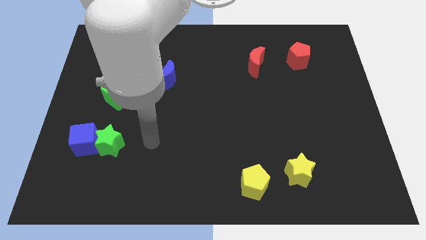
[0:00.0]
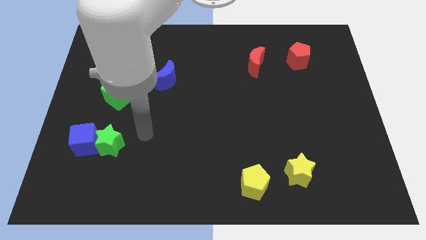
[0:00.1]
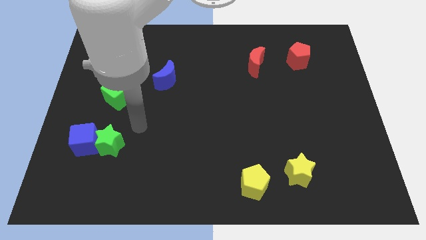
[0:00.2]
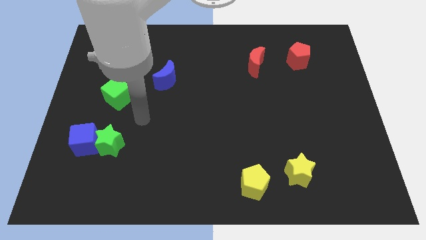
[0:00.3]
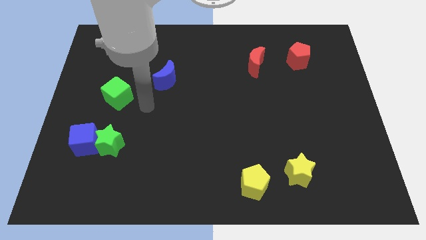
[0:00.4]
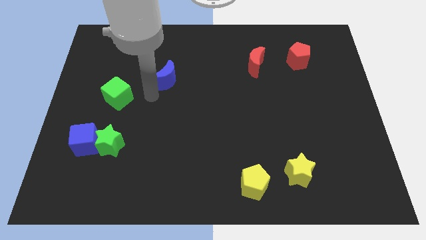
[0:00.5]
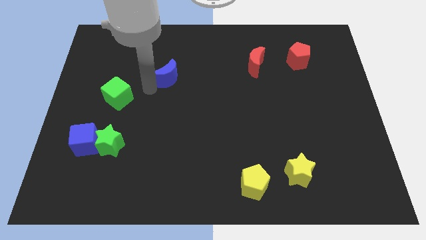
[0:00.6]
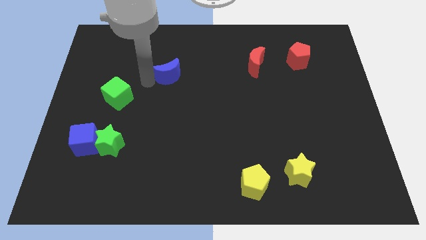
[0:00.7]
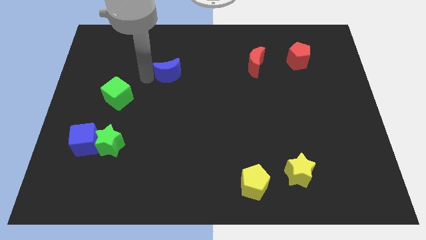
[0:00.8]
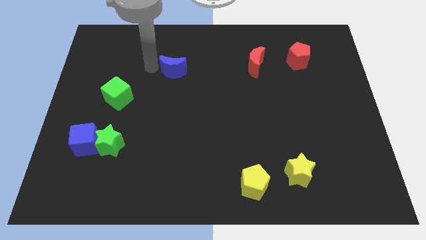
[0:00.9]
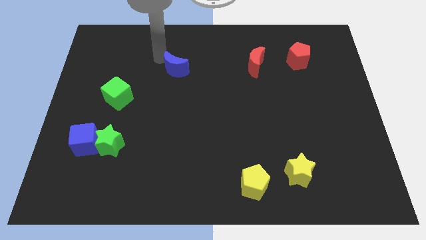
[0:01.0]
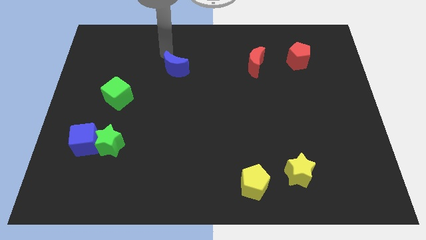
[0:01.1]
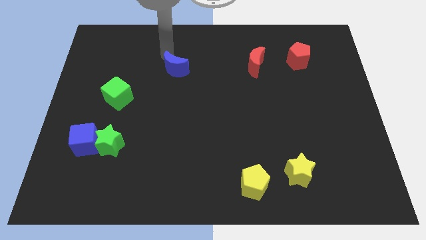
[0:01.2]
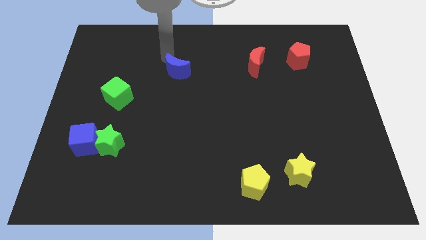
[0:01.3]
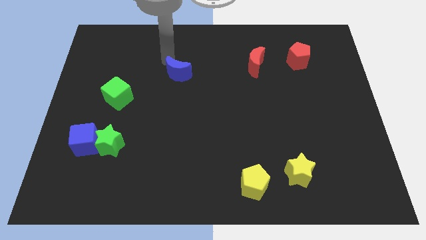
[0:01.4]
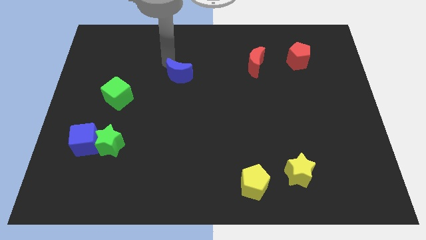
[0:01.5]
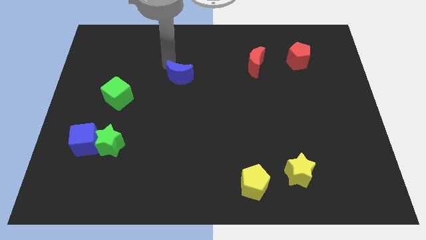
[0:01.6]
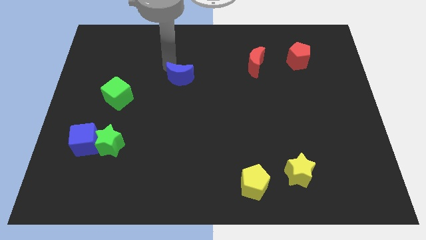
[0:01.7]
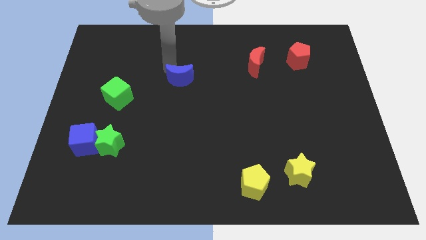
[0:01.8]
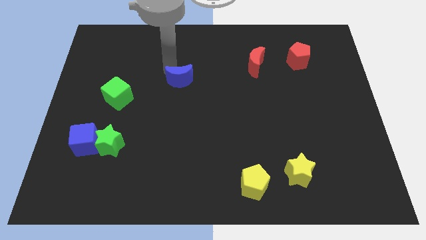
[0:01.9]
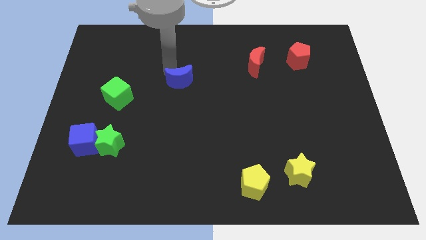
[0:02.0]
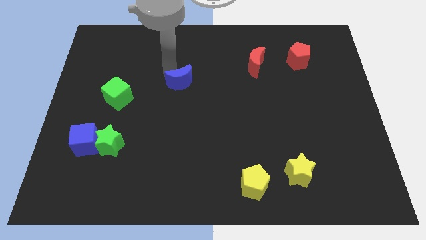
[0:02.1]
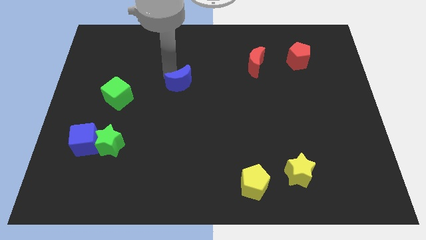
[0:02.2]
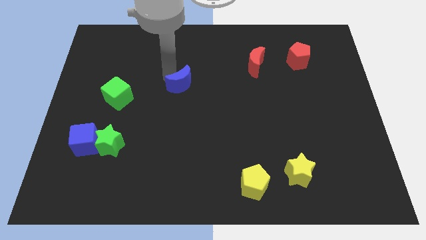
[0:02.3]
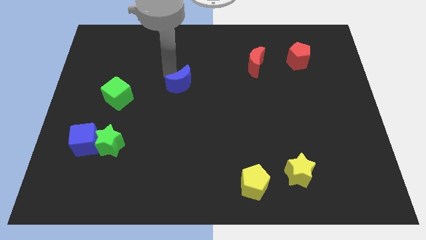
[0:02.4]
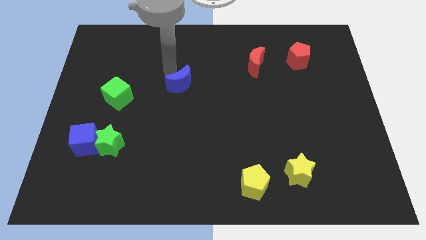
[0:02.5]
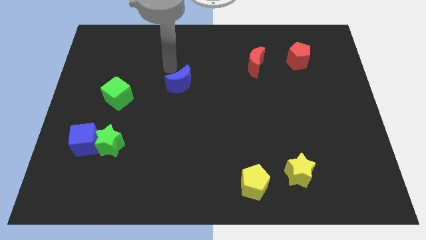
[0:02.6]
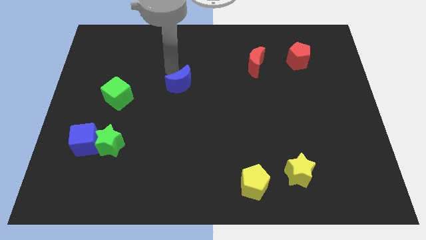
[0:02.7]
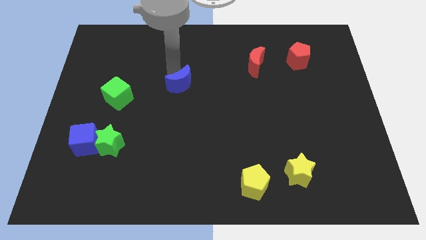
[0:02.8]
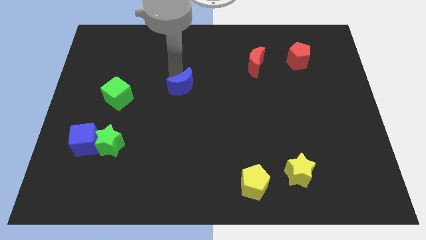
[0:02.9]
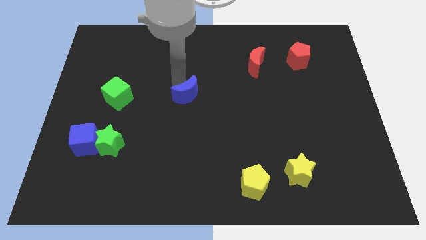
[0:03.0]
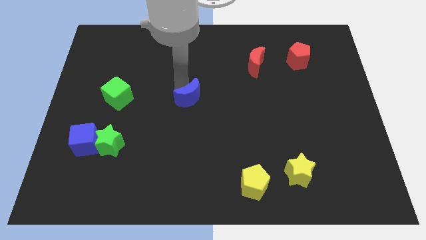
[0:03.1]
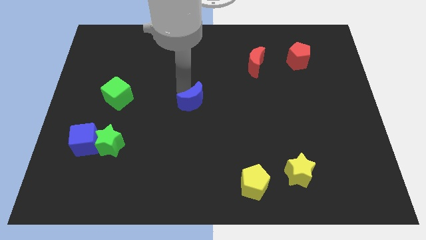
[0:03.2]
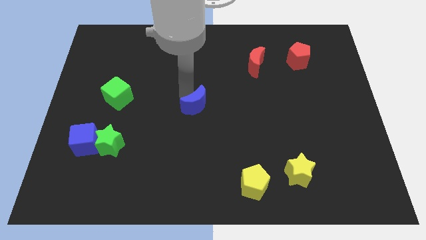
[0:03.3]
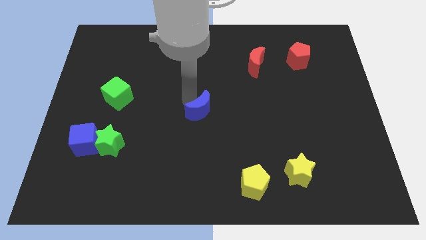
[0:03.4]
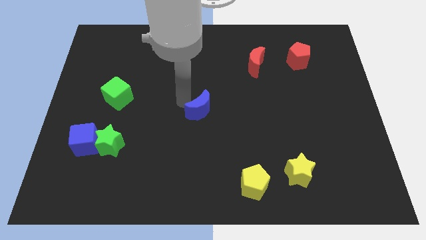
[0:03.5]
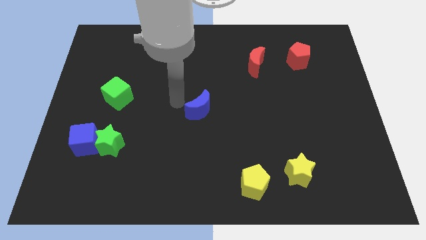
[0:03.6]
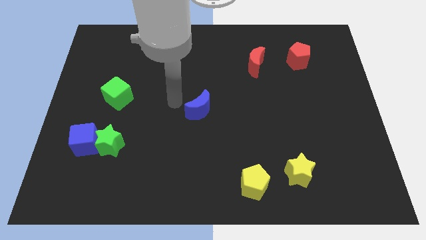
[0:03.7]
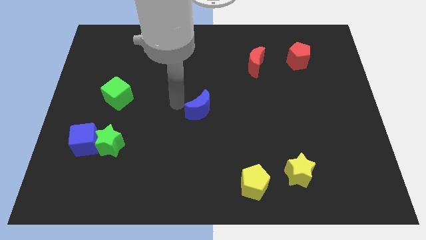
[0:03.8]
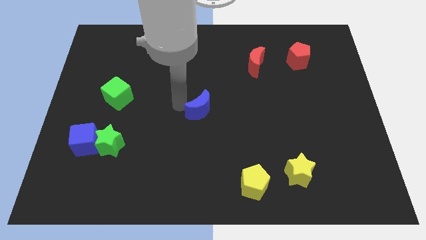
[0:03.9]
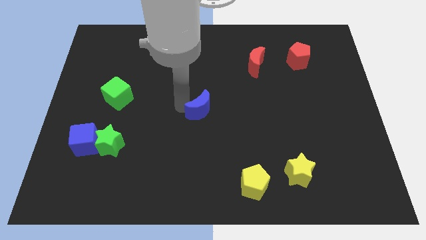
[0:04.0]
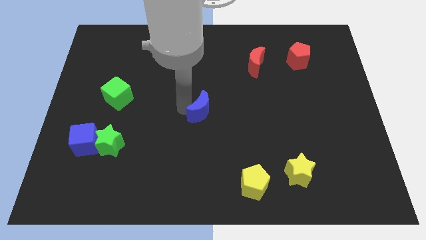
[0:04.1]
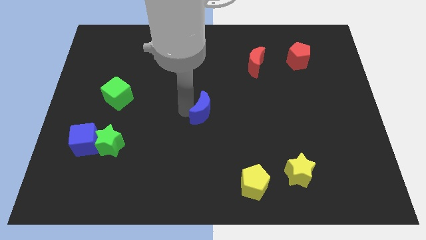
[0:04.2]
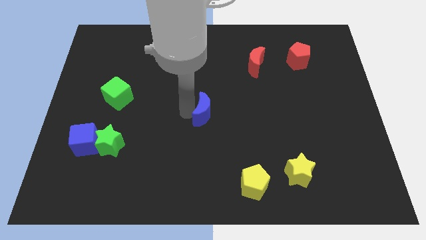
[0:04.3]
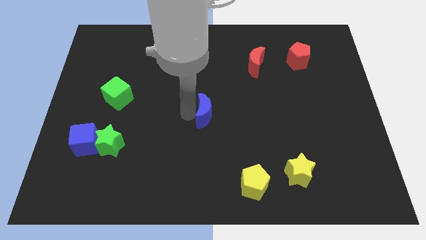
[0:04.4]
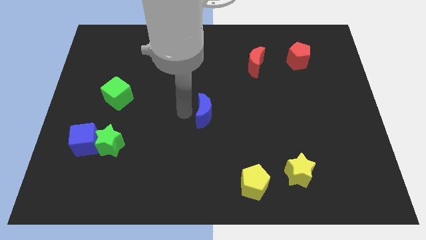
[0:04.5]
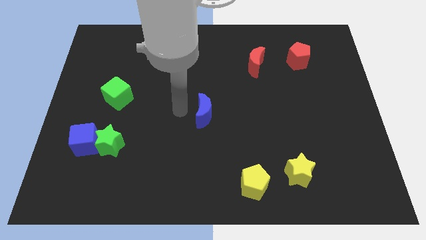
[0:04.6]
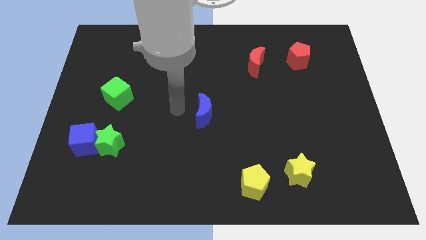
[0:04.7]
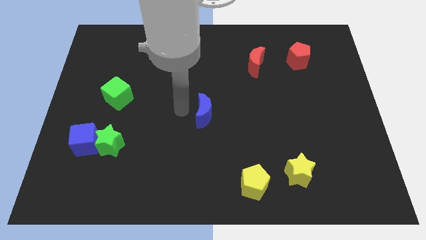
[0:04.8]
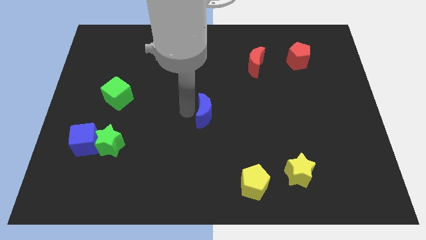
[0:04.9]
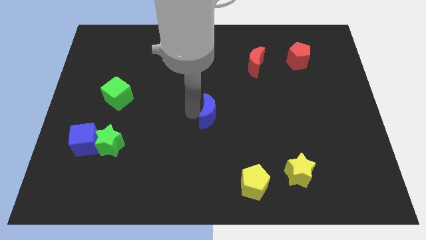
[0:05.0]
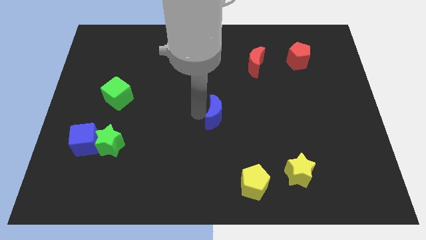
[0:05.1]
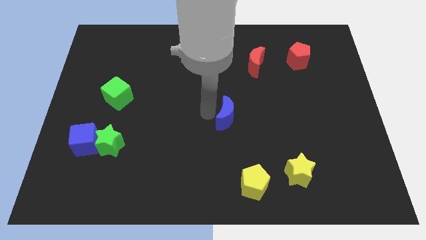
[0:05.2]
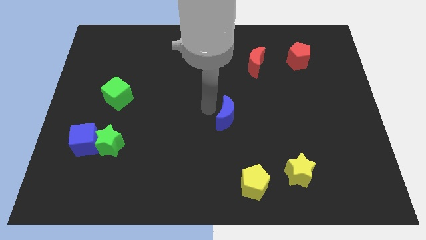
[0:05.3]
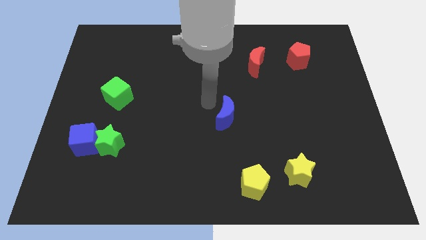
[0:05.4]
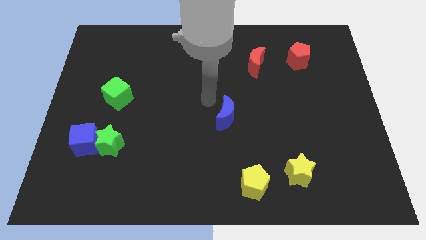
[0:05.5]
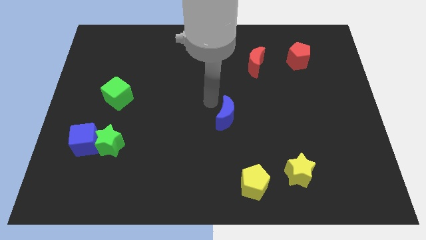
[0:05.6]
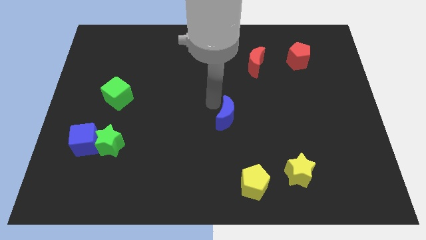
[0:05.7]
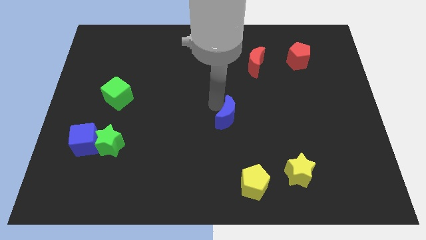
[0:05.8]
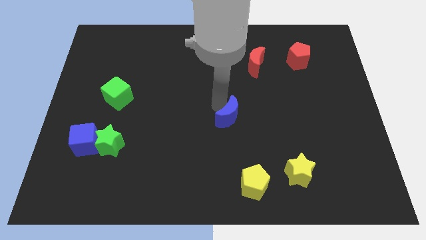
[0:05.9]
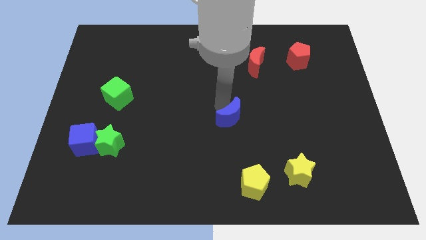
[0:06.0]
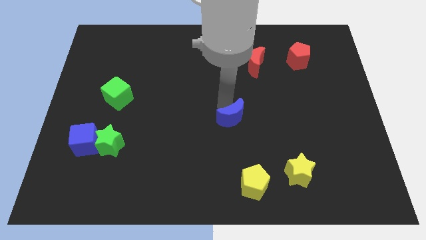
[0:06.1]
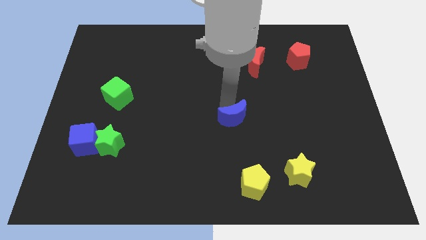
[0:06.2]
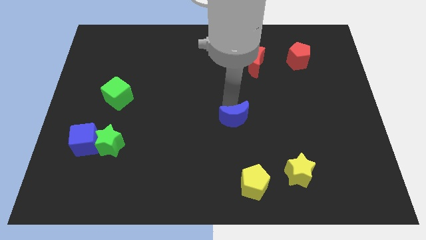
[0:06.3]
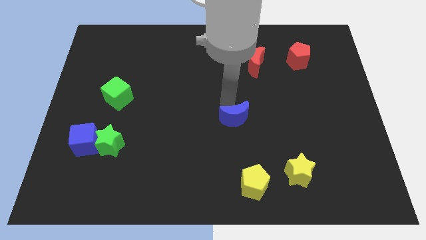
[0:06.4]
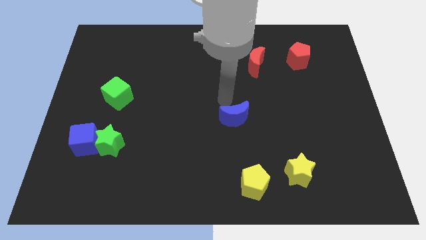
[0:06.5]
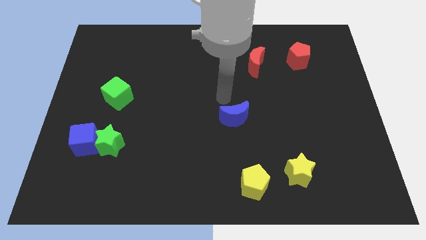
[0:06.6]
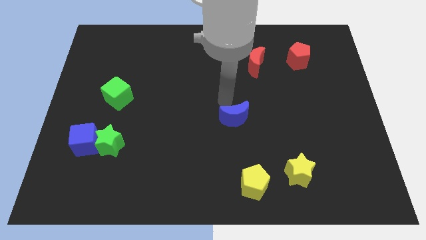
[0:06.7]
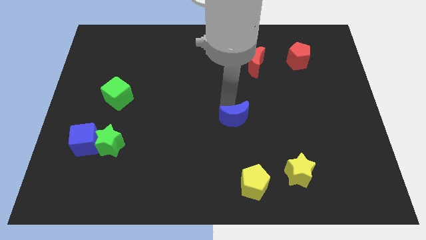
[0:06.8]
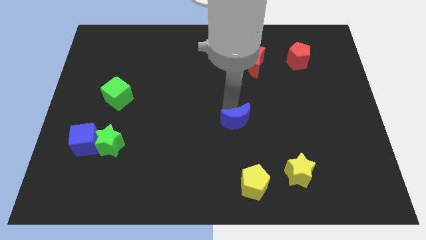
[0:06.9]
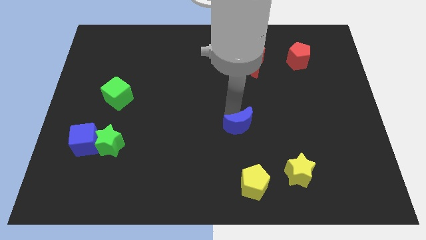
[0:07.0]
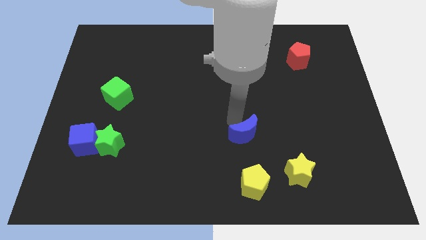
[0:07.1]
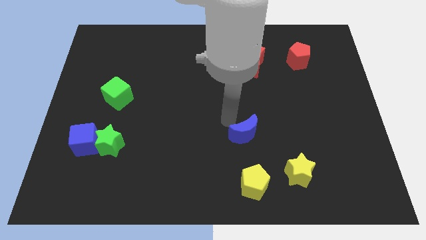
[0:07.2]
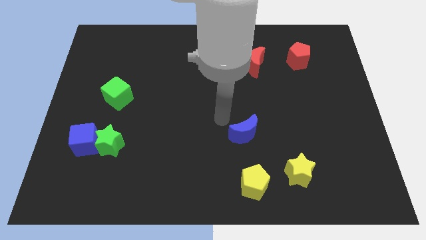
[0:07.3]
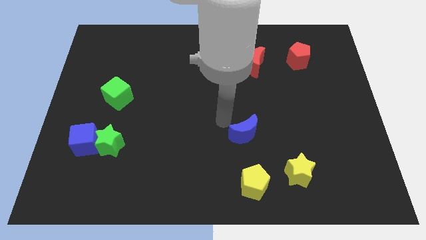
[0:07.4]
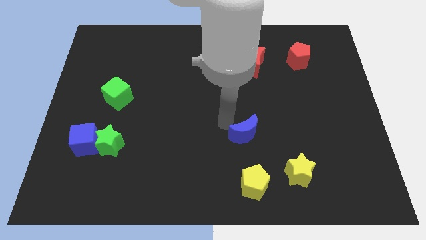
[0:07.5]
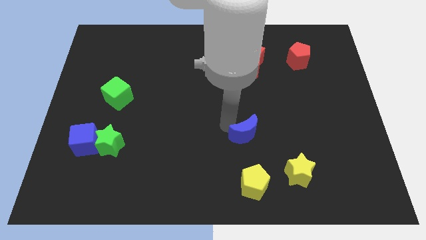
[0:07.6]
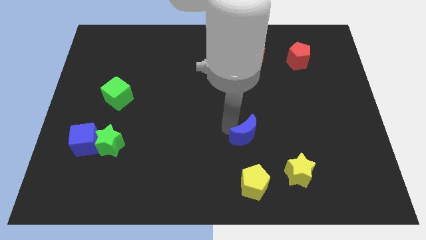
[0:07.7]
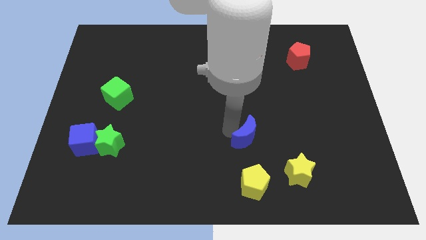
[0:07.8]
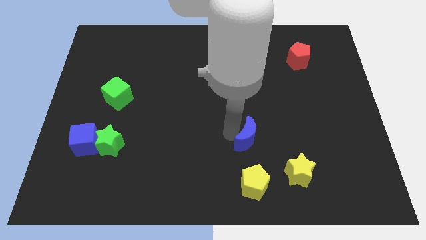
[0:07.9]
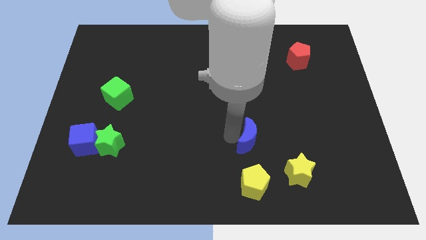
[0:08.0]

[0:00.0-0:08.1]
push the blue moon diagonally up and to the left of the yellow star
